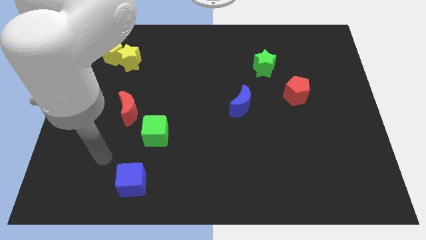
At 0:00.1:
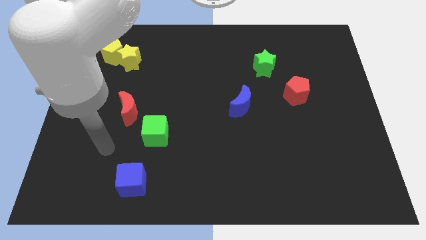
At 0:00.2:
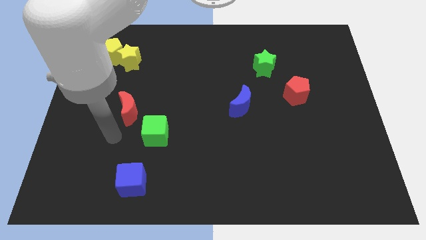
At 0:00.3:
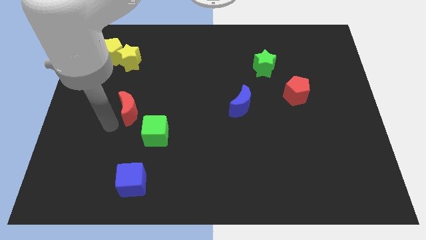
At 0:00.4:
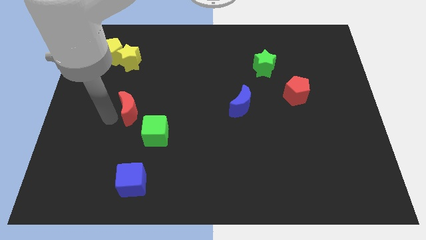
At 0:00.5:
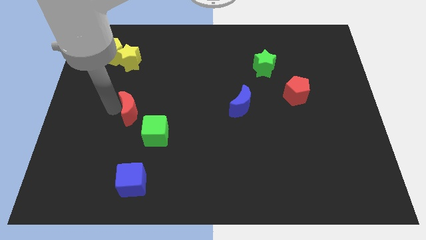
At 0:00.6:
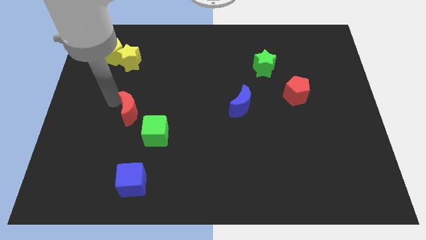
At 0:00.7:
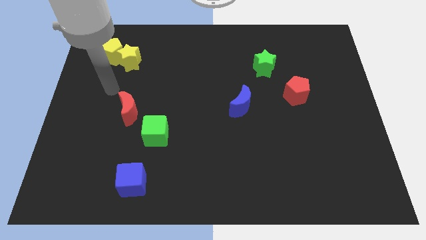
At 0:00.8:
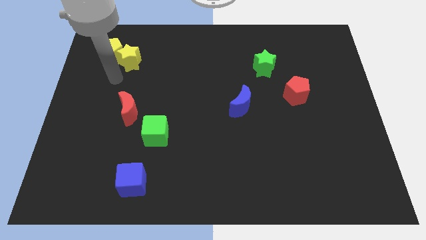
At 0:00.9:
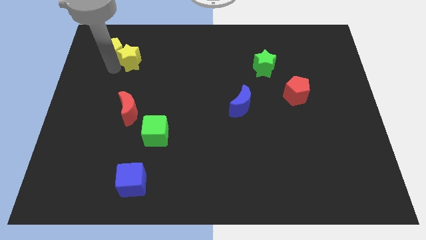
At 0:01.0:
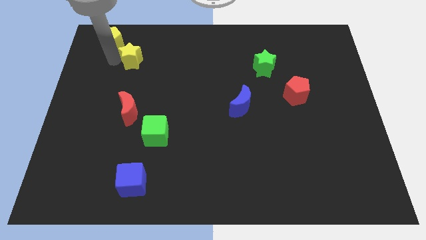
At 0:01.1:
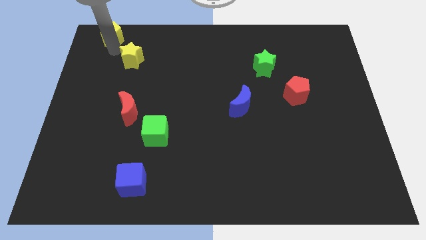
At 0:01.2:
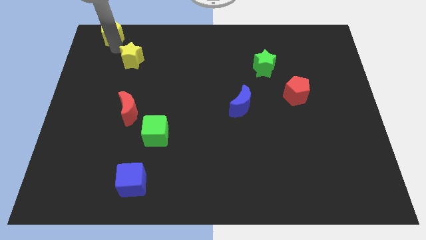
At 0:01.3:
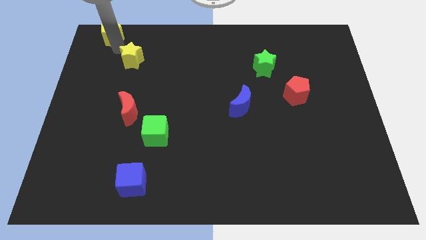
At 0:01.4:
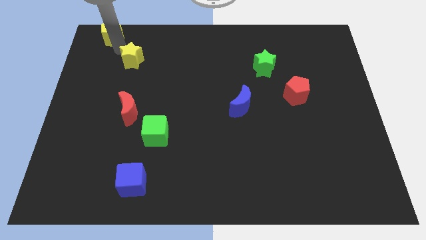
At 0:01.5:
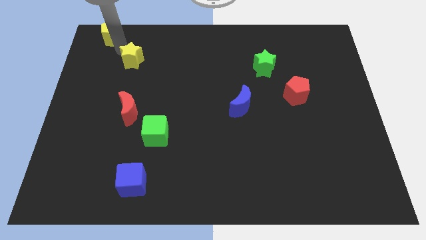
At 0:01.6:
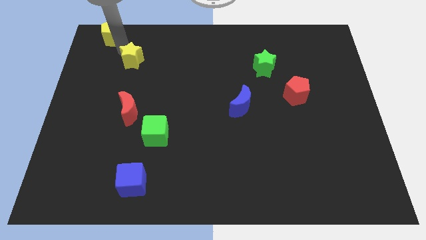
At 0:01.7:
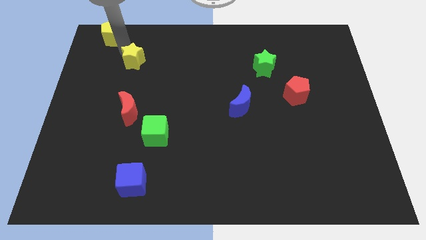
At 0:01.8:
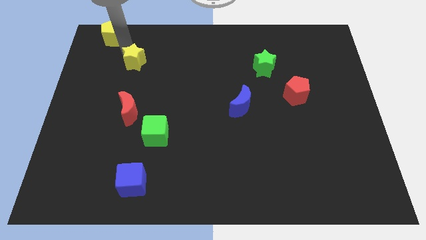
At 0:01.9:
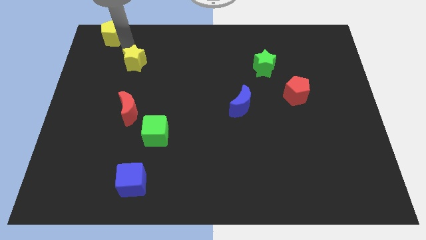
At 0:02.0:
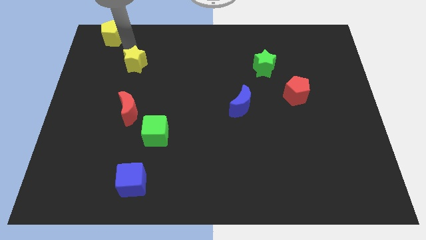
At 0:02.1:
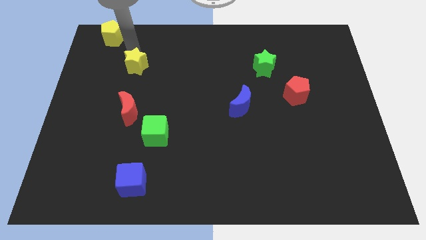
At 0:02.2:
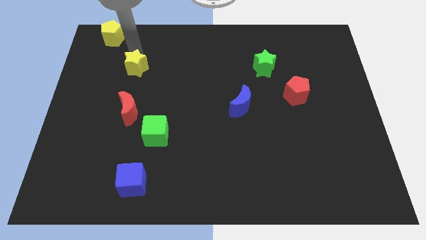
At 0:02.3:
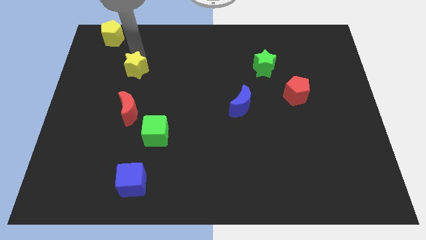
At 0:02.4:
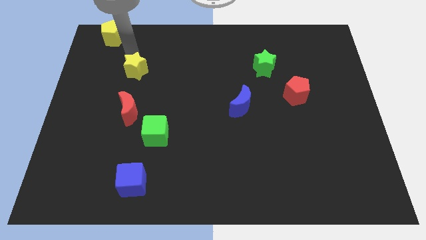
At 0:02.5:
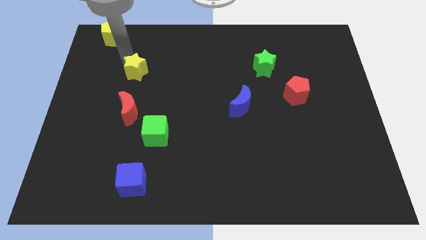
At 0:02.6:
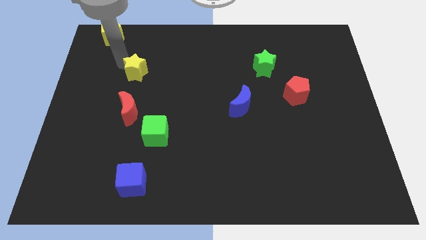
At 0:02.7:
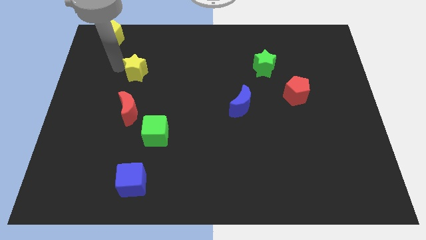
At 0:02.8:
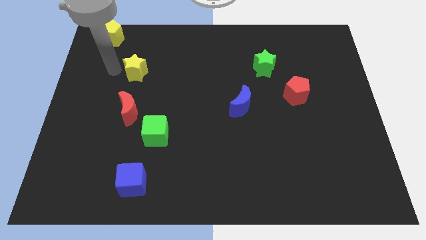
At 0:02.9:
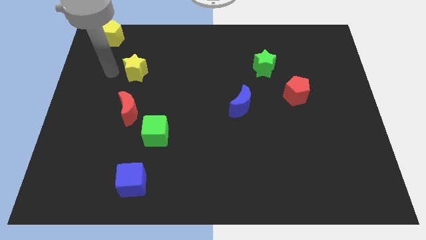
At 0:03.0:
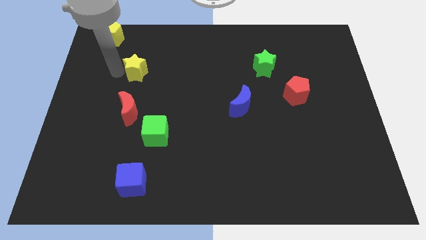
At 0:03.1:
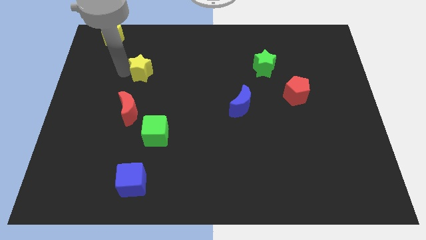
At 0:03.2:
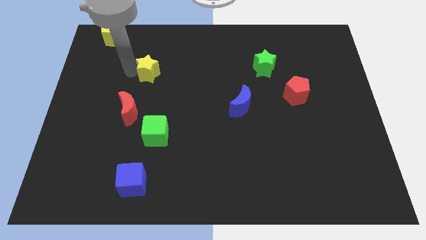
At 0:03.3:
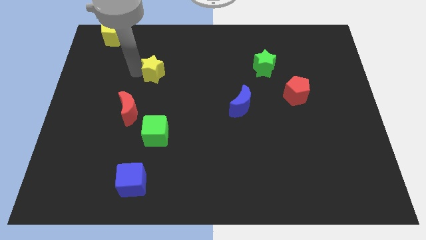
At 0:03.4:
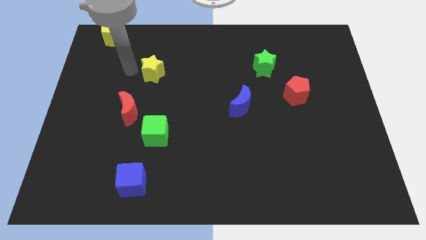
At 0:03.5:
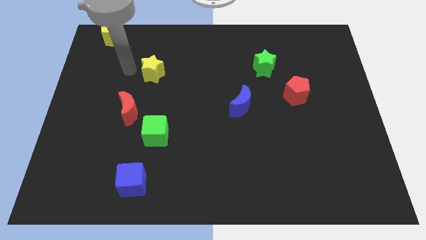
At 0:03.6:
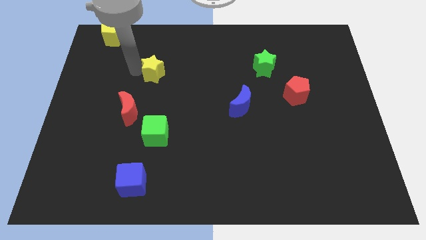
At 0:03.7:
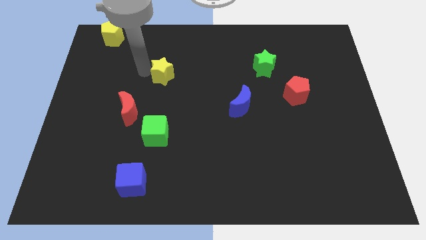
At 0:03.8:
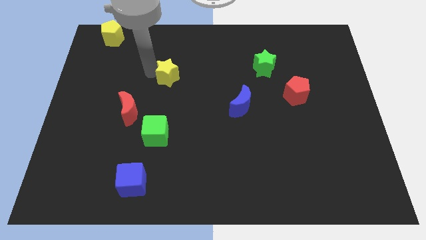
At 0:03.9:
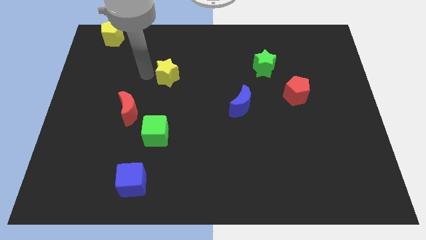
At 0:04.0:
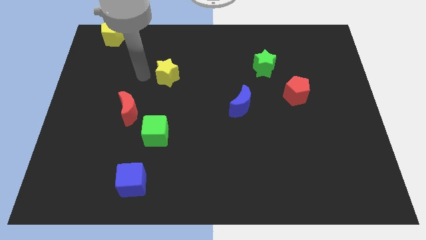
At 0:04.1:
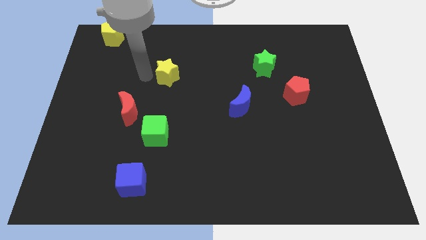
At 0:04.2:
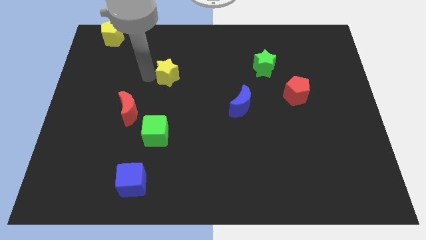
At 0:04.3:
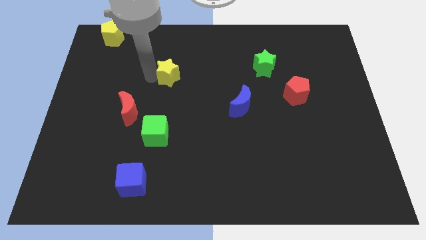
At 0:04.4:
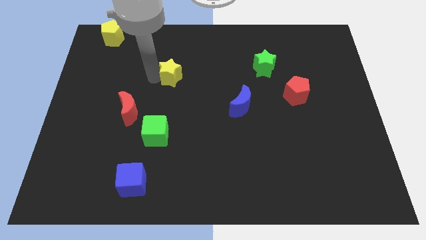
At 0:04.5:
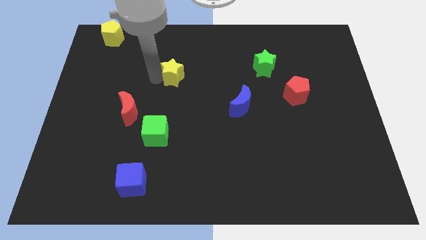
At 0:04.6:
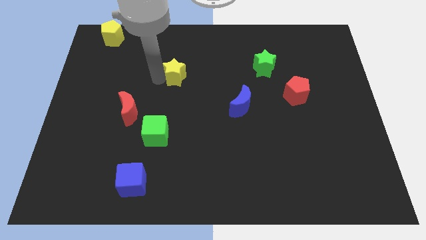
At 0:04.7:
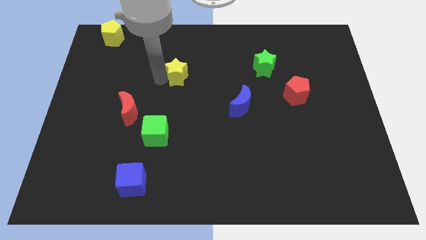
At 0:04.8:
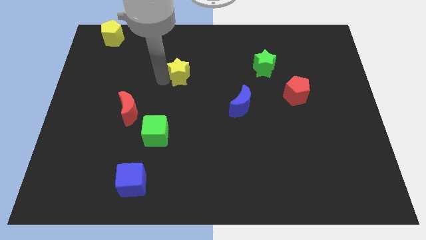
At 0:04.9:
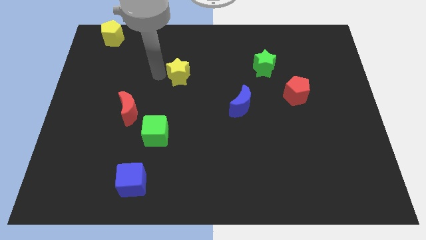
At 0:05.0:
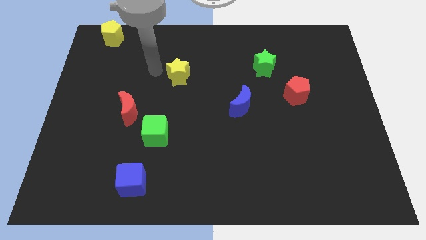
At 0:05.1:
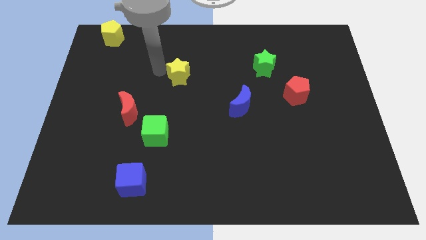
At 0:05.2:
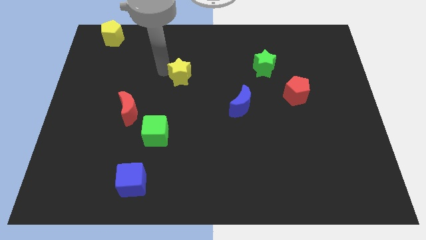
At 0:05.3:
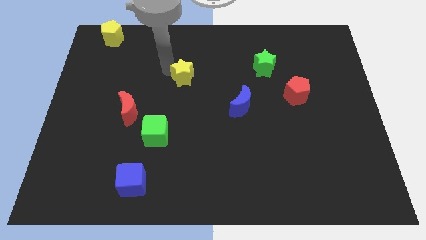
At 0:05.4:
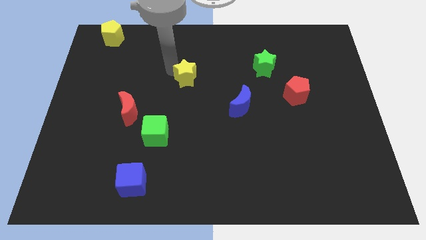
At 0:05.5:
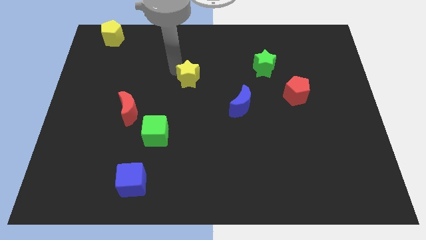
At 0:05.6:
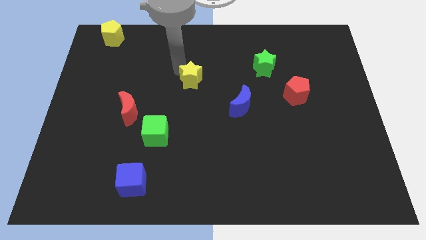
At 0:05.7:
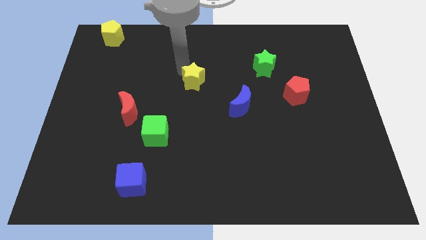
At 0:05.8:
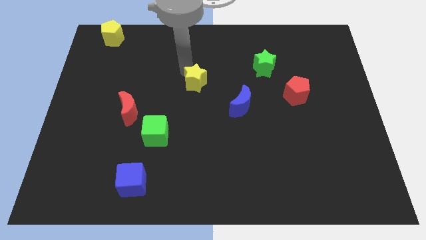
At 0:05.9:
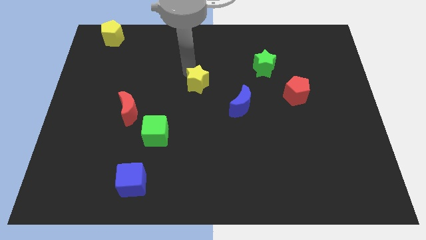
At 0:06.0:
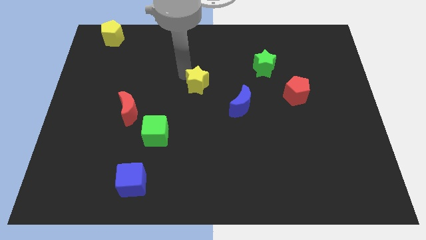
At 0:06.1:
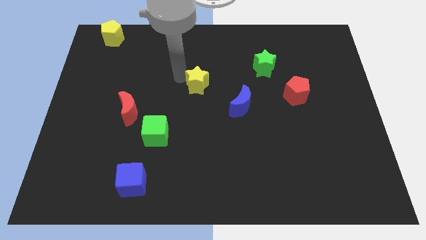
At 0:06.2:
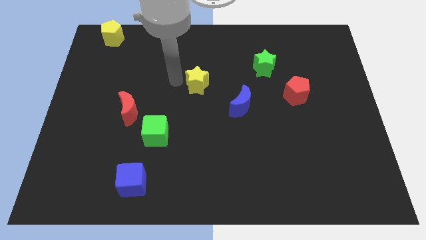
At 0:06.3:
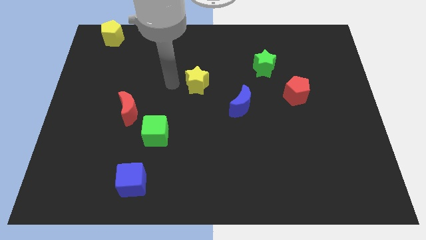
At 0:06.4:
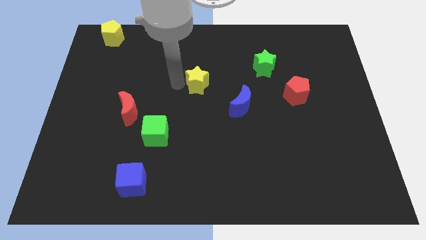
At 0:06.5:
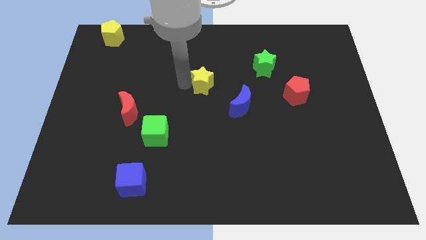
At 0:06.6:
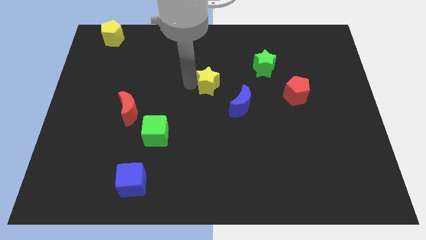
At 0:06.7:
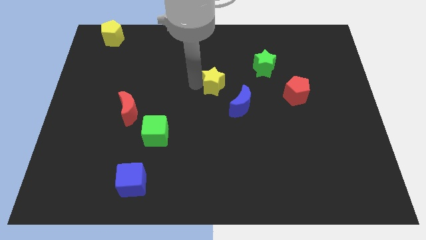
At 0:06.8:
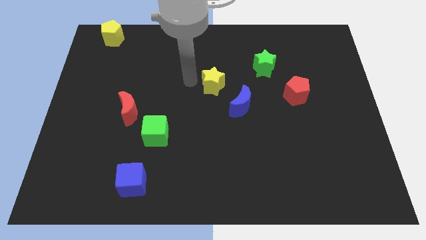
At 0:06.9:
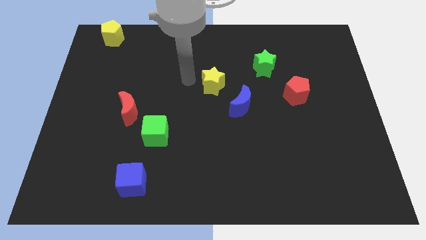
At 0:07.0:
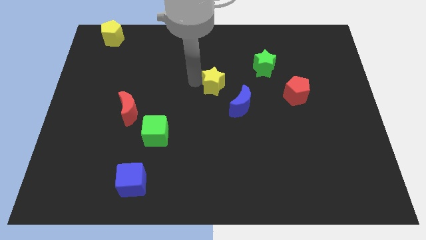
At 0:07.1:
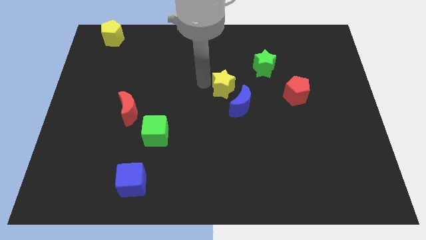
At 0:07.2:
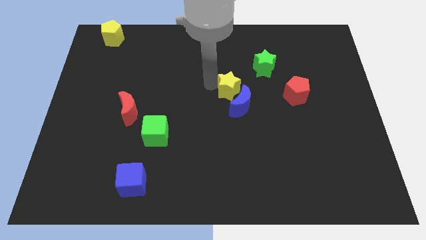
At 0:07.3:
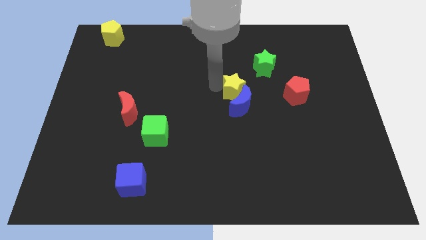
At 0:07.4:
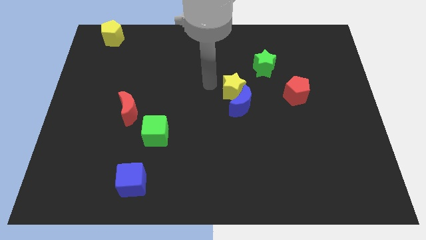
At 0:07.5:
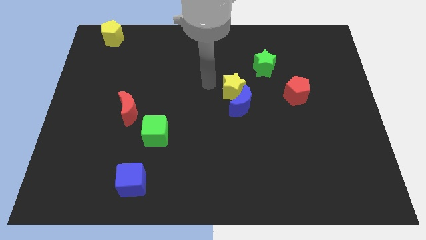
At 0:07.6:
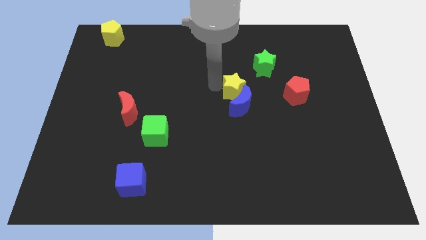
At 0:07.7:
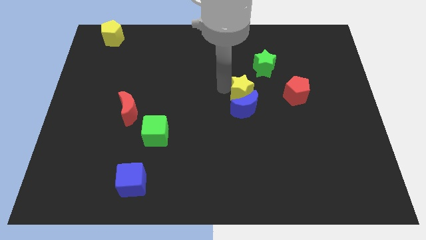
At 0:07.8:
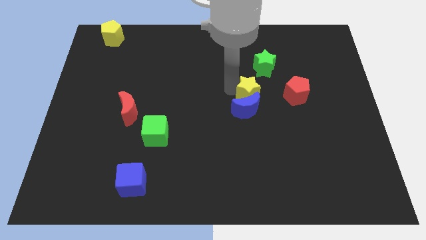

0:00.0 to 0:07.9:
put the yellow star to the bottom of the green star
